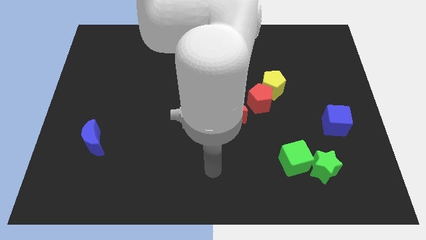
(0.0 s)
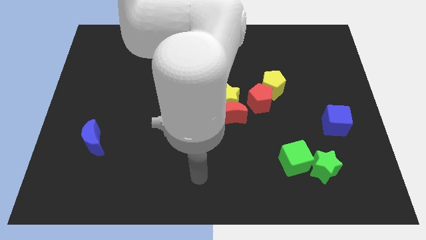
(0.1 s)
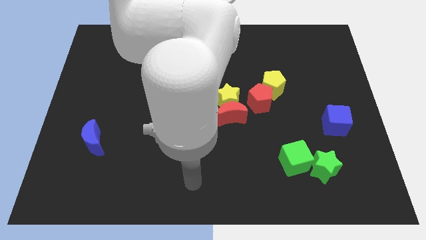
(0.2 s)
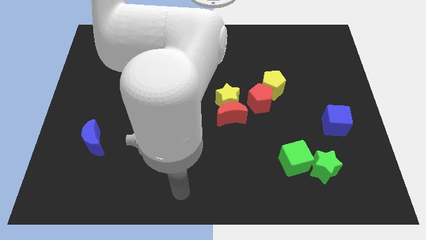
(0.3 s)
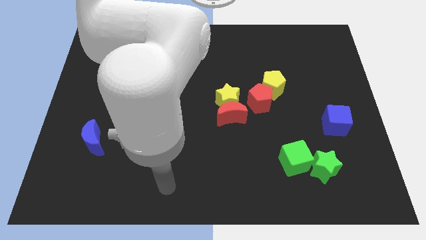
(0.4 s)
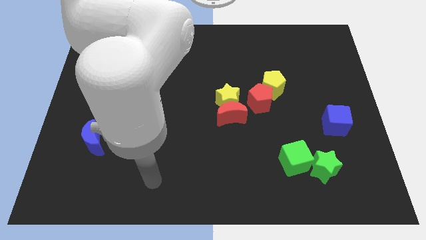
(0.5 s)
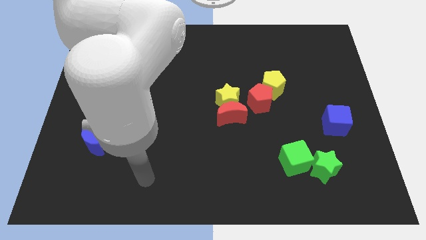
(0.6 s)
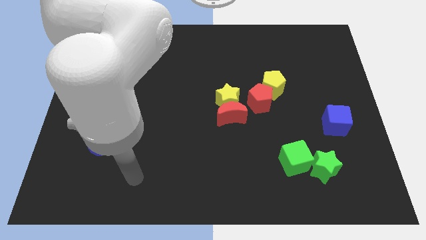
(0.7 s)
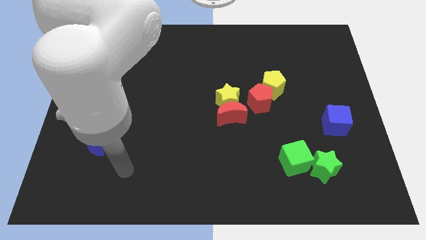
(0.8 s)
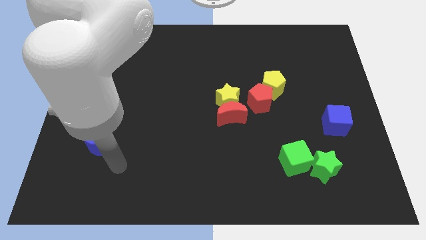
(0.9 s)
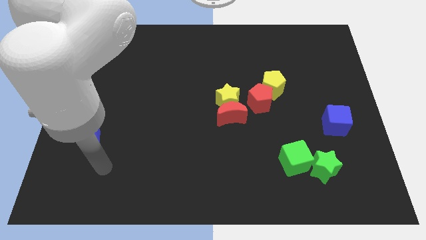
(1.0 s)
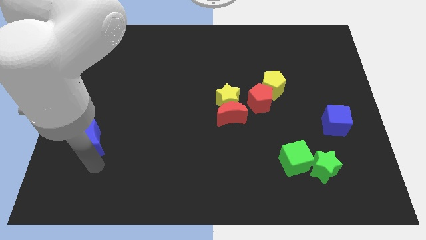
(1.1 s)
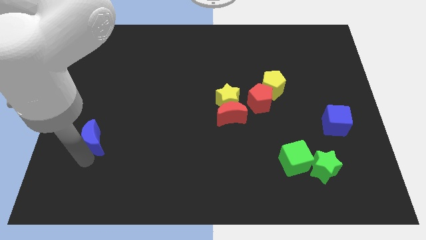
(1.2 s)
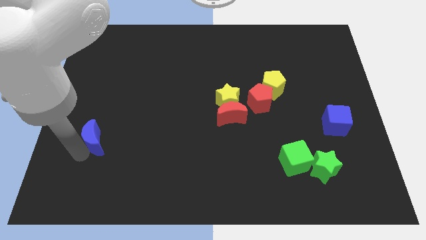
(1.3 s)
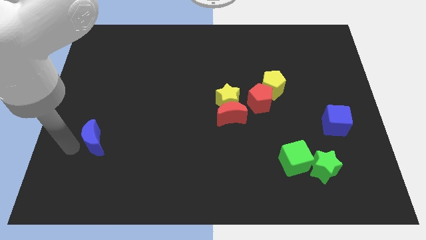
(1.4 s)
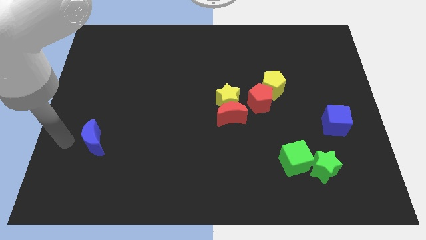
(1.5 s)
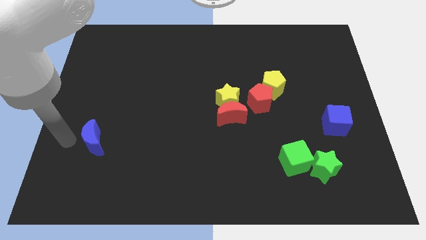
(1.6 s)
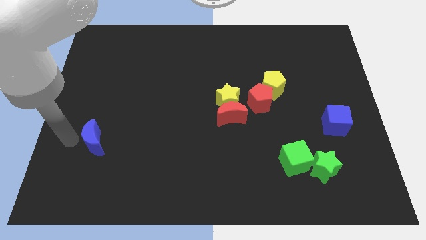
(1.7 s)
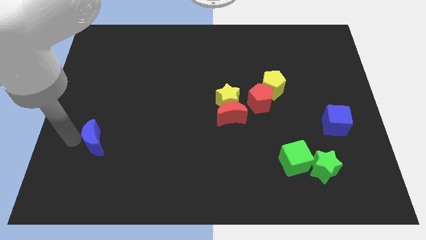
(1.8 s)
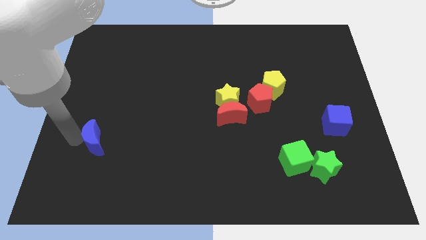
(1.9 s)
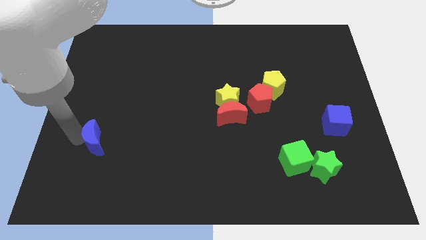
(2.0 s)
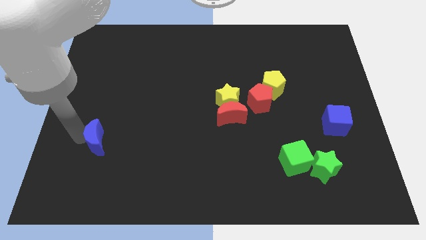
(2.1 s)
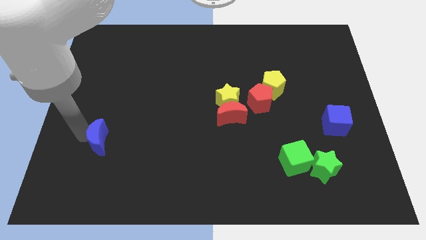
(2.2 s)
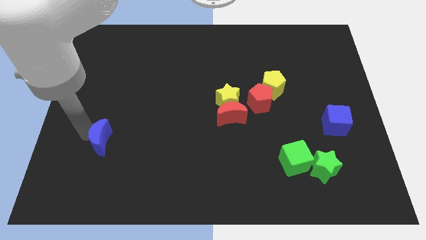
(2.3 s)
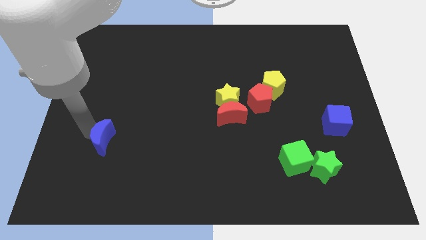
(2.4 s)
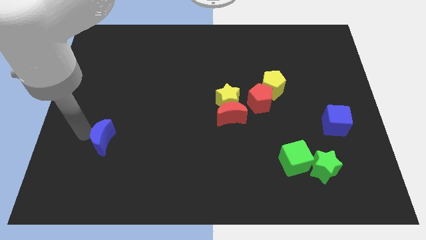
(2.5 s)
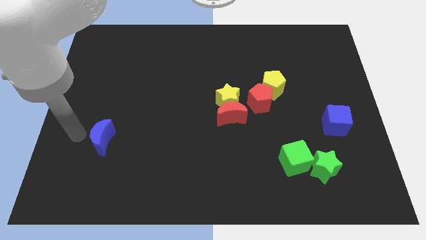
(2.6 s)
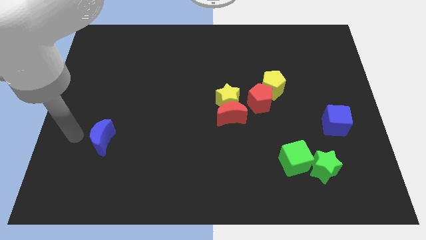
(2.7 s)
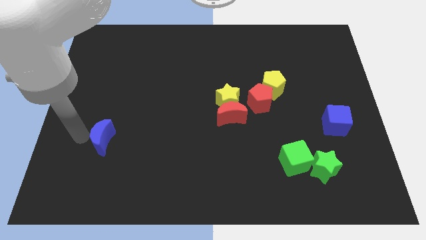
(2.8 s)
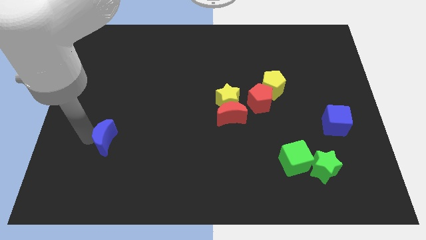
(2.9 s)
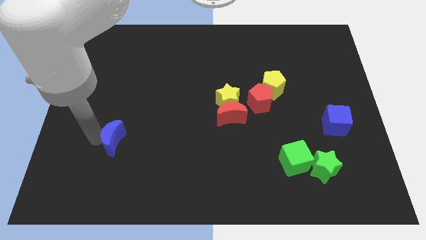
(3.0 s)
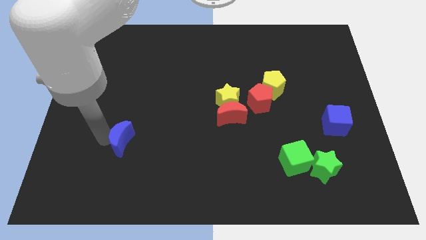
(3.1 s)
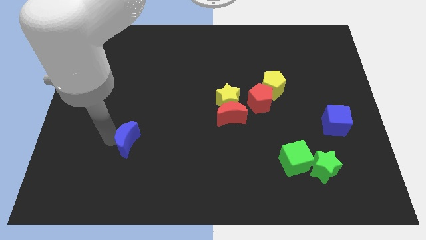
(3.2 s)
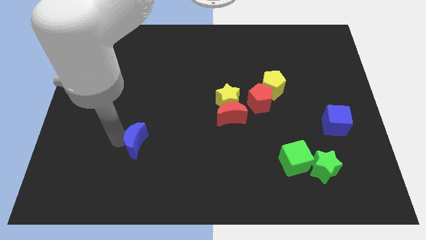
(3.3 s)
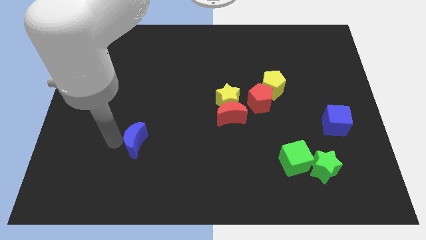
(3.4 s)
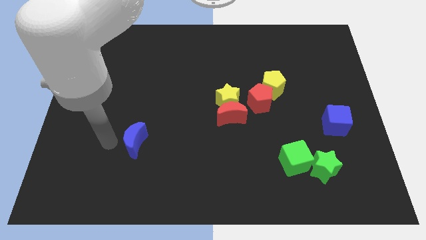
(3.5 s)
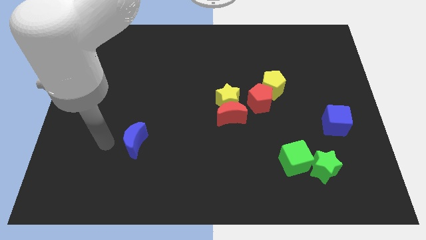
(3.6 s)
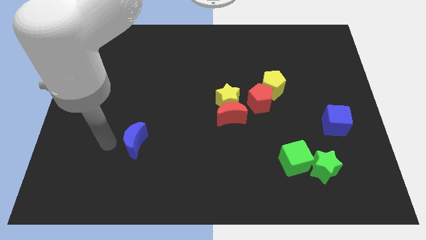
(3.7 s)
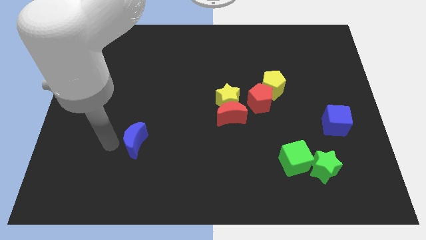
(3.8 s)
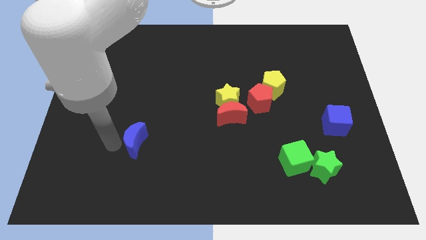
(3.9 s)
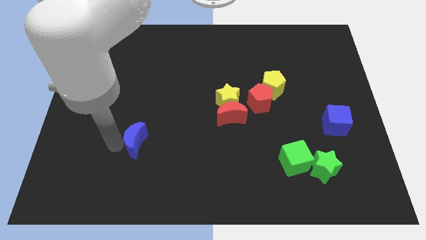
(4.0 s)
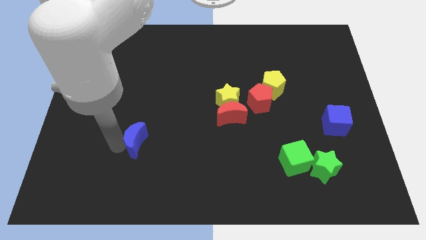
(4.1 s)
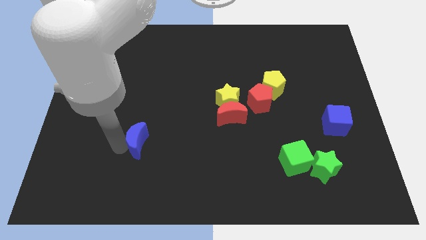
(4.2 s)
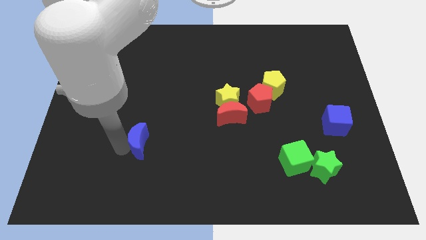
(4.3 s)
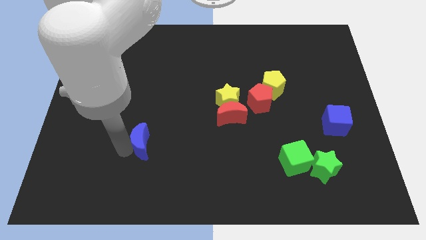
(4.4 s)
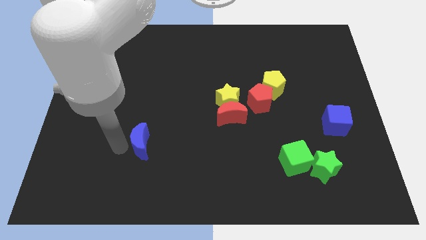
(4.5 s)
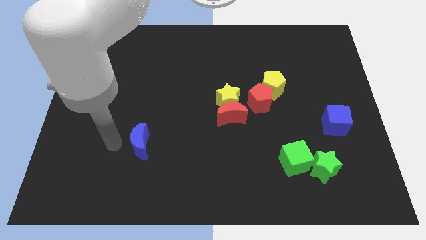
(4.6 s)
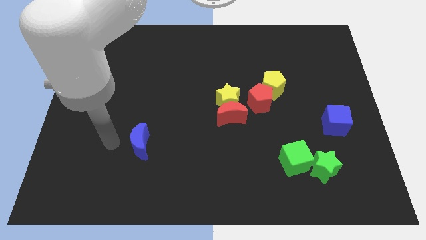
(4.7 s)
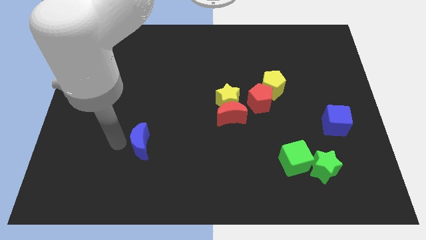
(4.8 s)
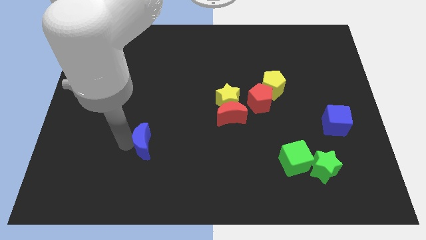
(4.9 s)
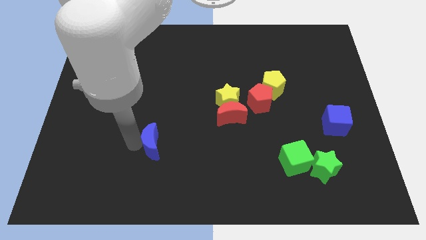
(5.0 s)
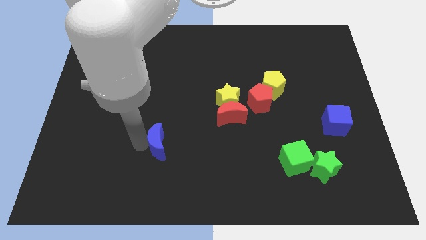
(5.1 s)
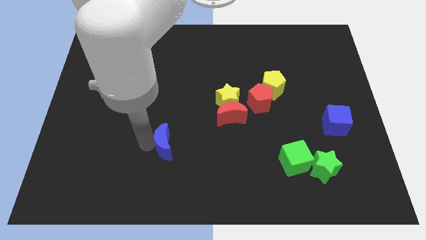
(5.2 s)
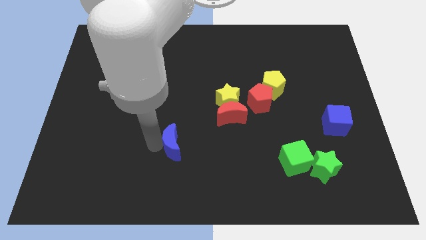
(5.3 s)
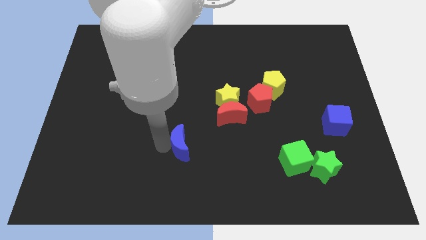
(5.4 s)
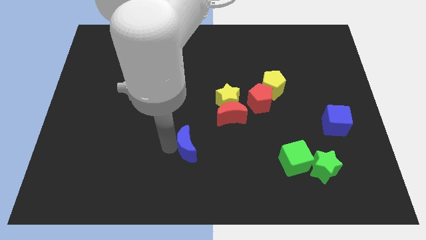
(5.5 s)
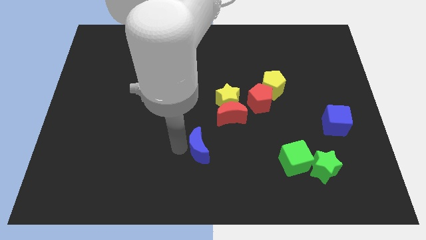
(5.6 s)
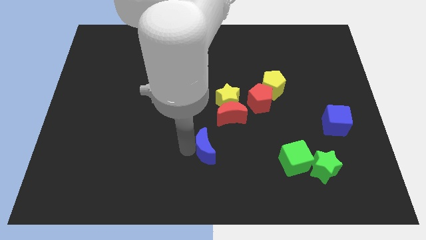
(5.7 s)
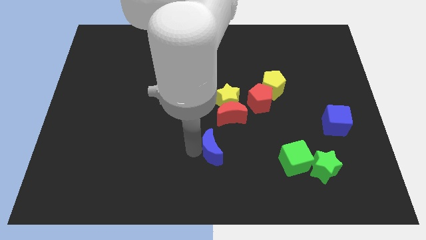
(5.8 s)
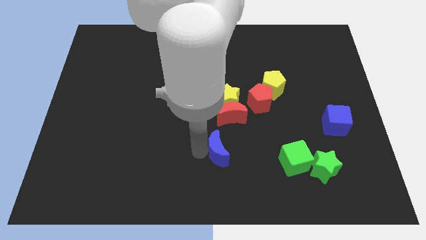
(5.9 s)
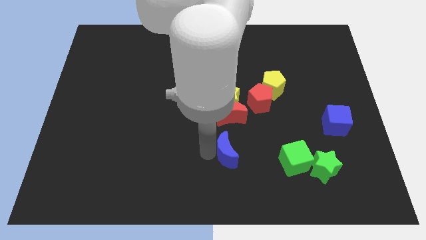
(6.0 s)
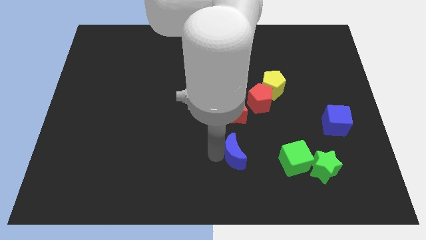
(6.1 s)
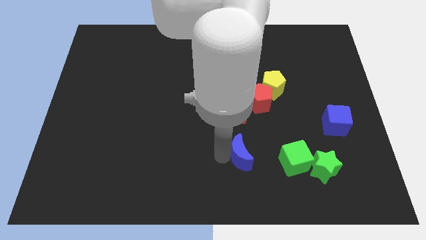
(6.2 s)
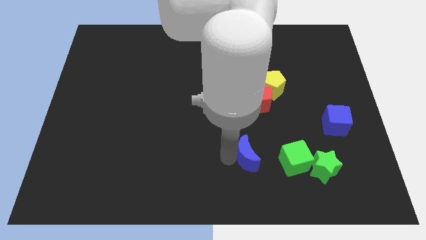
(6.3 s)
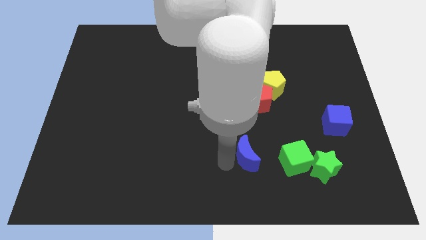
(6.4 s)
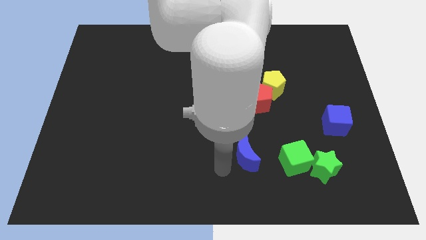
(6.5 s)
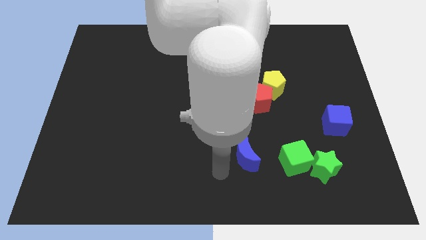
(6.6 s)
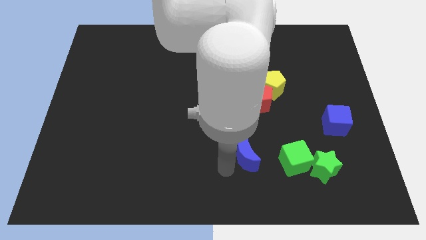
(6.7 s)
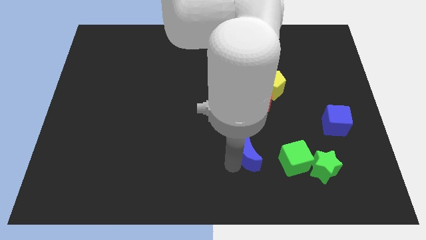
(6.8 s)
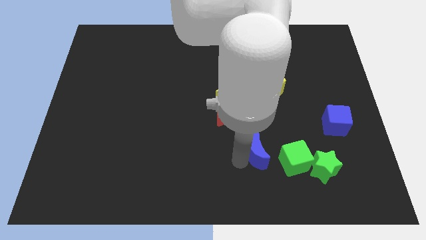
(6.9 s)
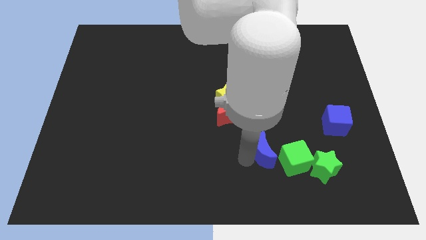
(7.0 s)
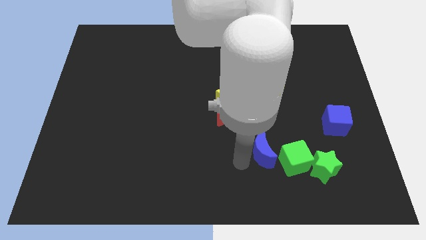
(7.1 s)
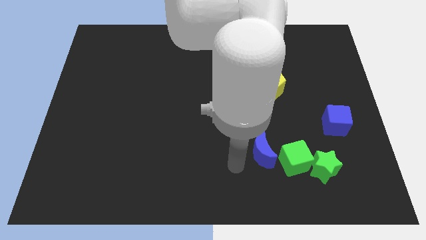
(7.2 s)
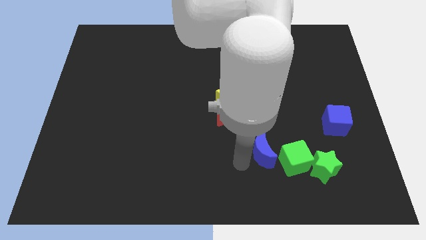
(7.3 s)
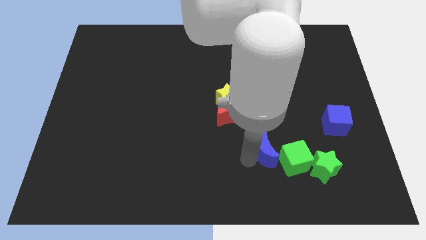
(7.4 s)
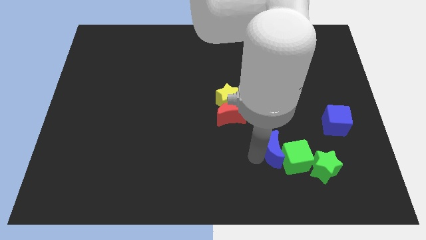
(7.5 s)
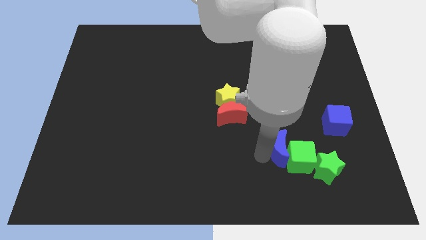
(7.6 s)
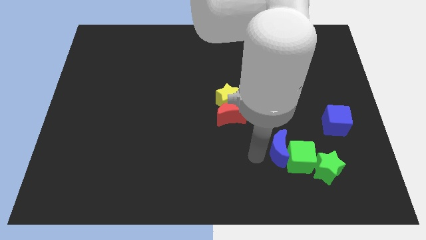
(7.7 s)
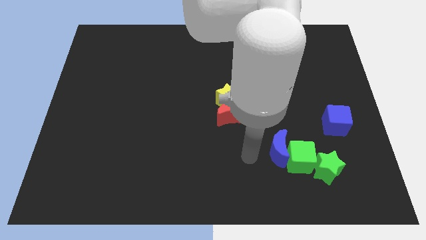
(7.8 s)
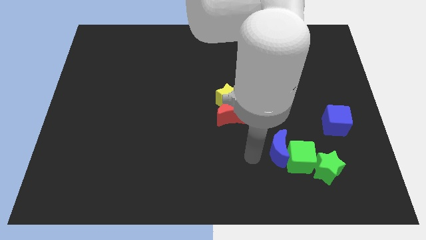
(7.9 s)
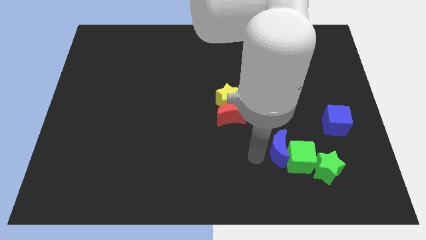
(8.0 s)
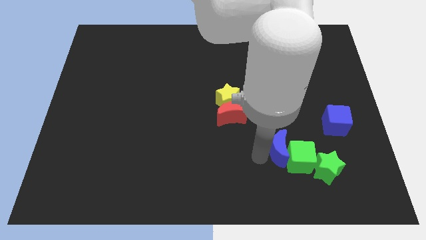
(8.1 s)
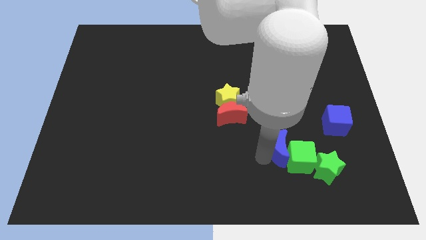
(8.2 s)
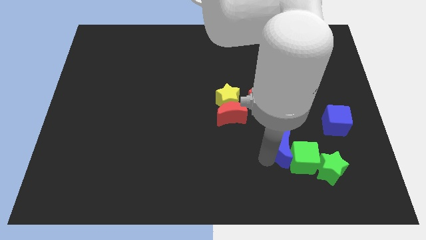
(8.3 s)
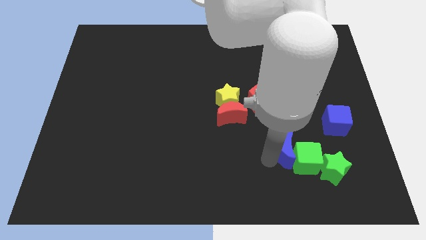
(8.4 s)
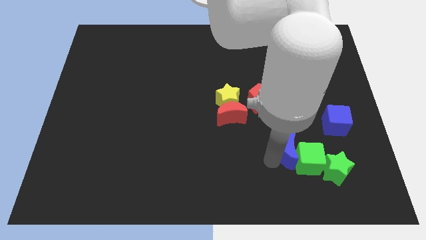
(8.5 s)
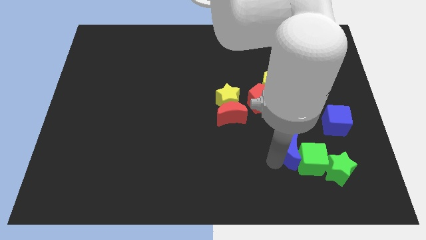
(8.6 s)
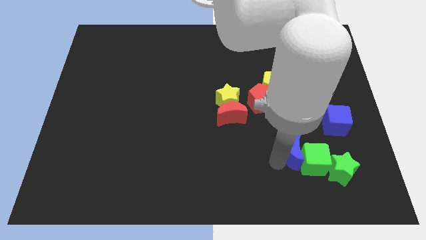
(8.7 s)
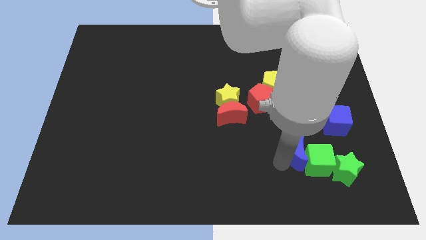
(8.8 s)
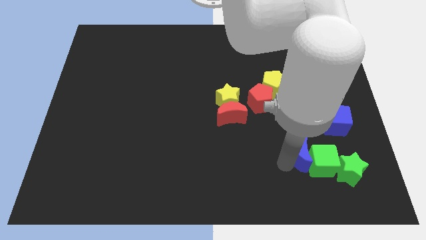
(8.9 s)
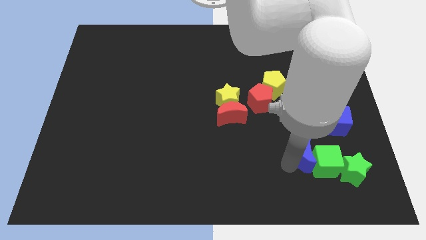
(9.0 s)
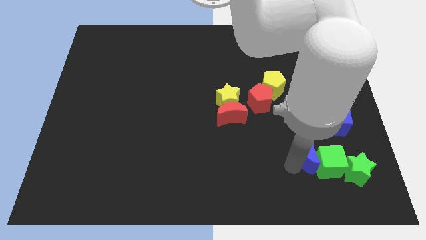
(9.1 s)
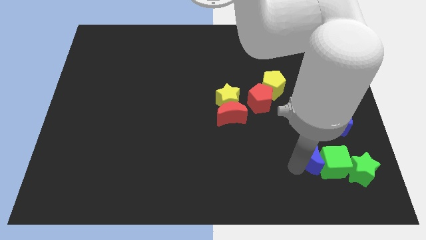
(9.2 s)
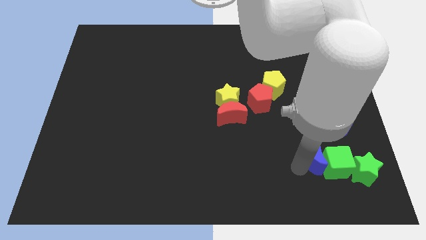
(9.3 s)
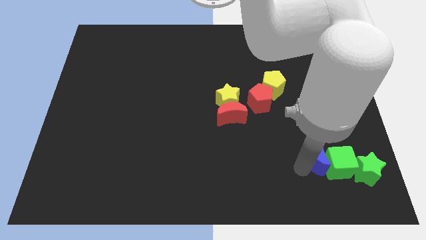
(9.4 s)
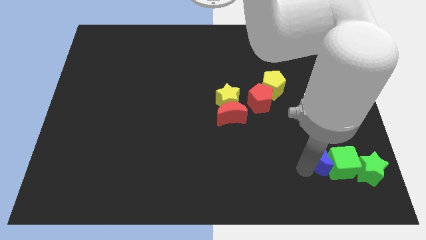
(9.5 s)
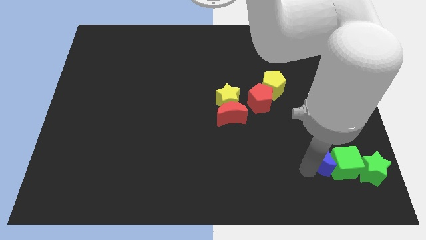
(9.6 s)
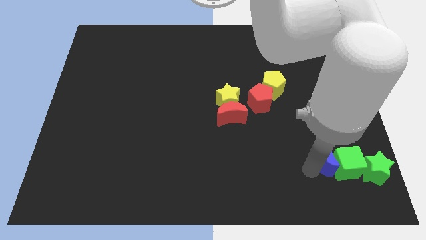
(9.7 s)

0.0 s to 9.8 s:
push the blue moon to the bottom side of the blue cube
